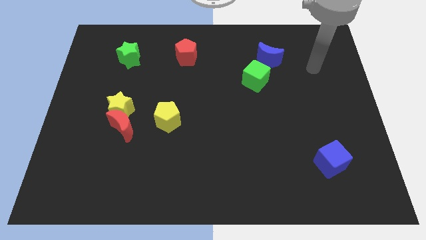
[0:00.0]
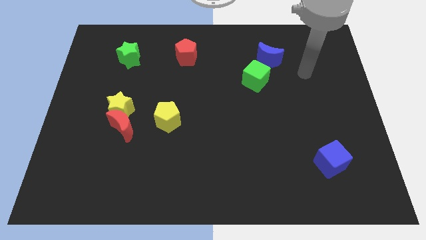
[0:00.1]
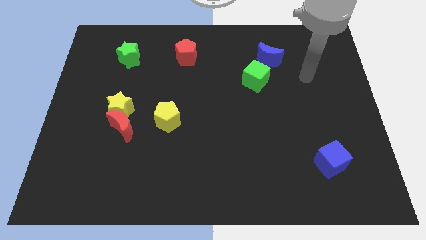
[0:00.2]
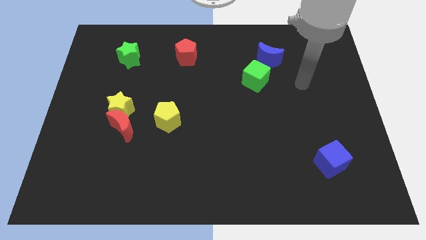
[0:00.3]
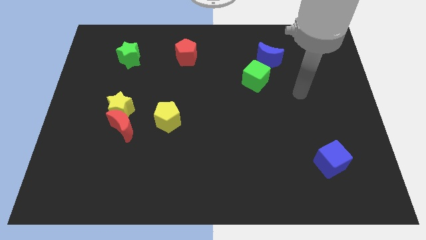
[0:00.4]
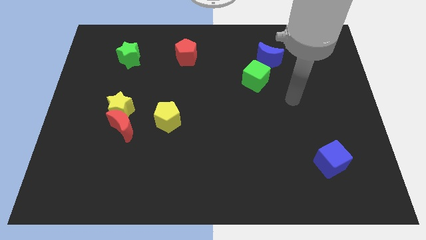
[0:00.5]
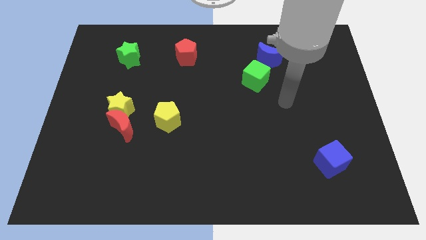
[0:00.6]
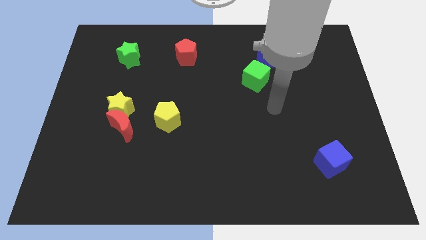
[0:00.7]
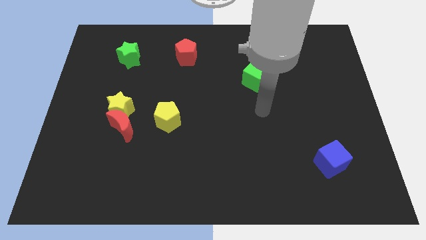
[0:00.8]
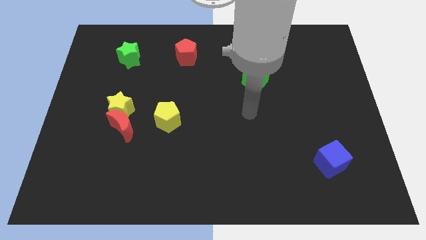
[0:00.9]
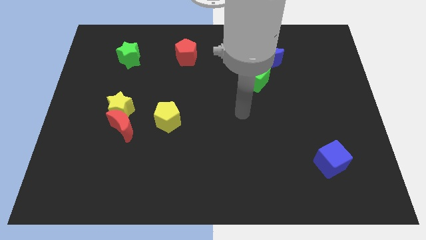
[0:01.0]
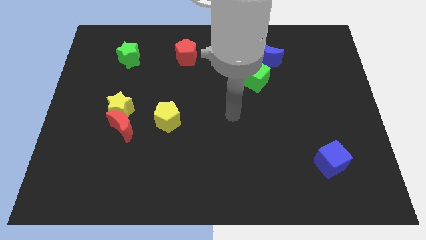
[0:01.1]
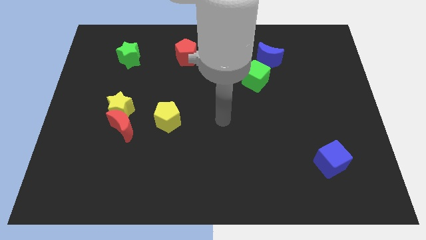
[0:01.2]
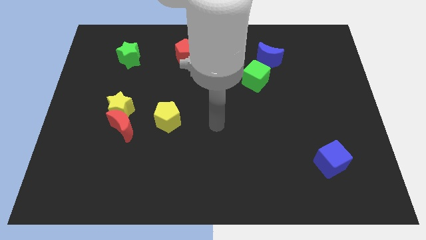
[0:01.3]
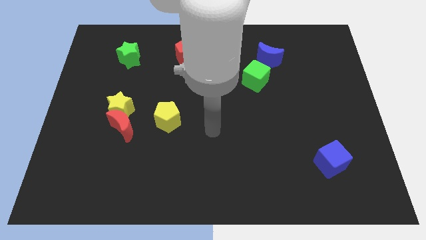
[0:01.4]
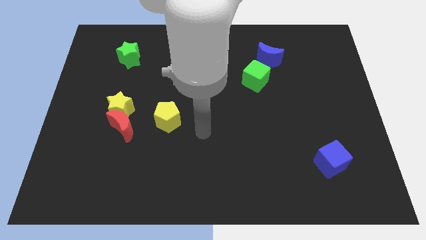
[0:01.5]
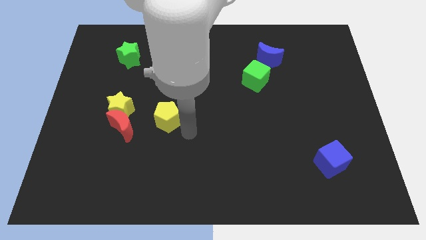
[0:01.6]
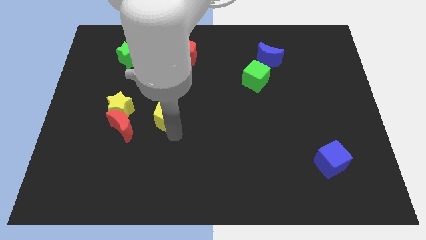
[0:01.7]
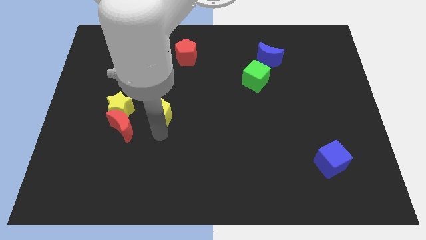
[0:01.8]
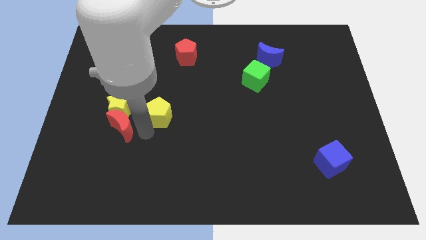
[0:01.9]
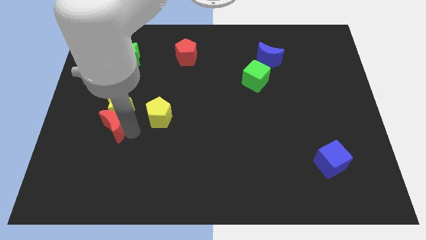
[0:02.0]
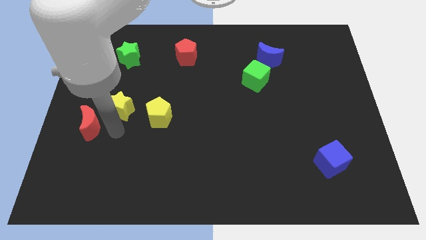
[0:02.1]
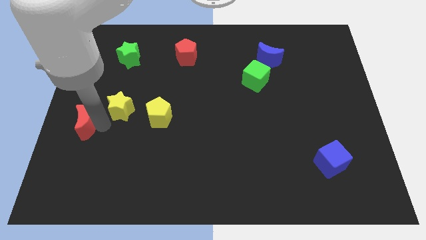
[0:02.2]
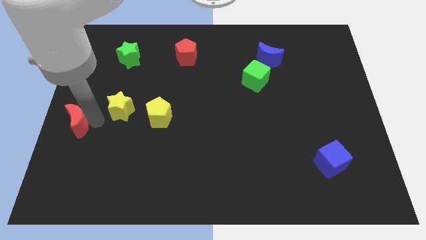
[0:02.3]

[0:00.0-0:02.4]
separate the yellow star from the red moon

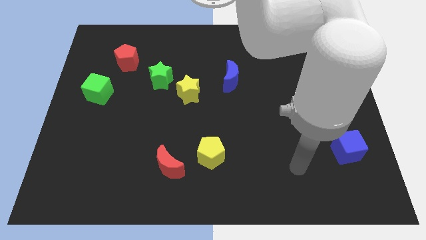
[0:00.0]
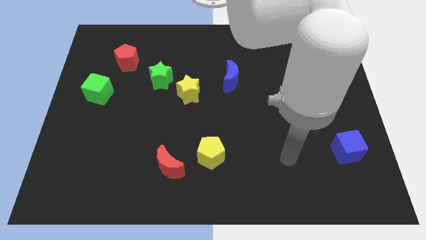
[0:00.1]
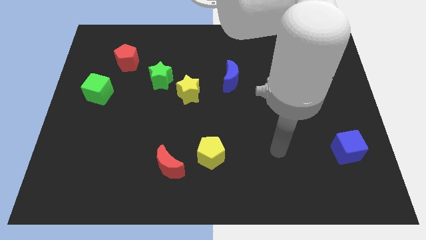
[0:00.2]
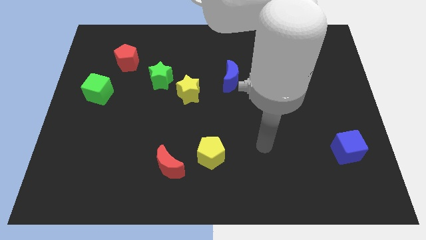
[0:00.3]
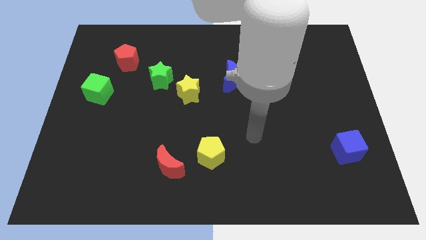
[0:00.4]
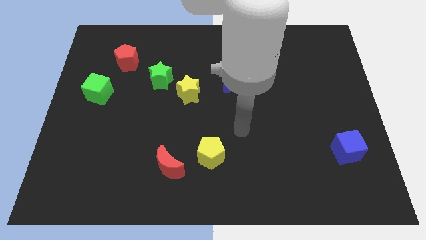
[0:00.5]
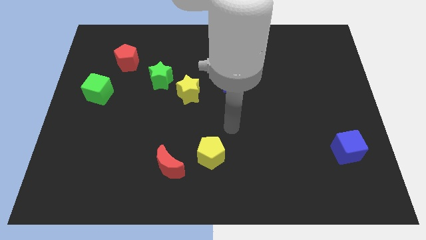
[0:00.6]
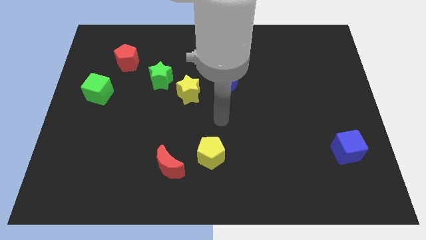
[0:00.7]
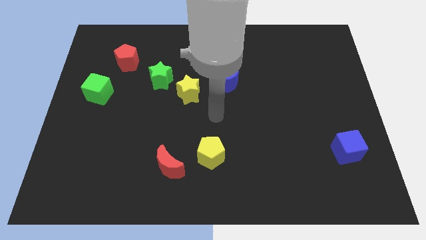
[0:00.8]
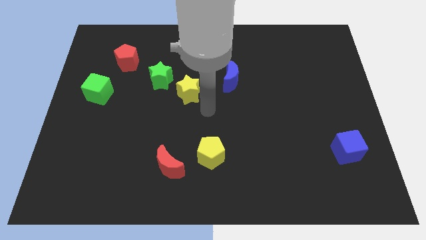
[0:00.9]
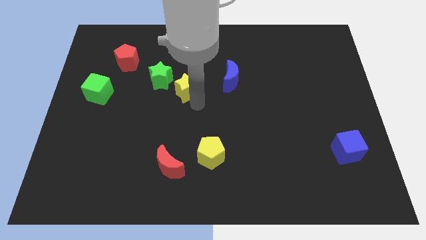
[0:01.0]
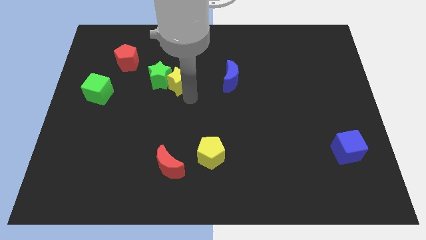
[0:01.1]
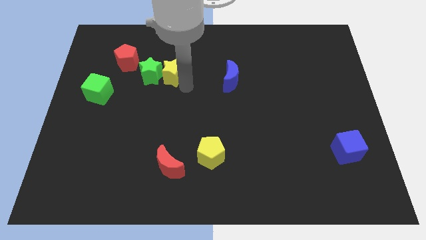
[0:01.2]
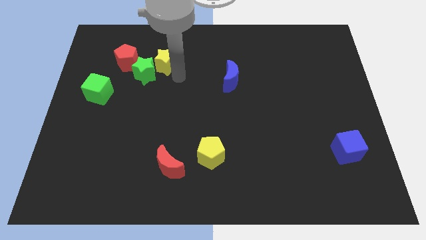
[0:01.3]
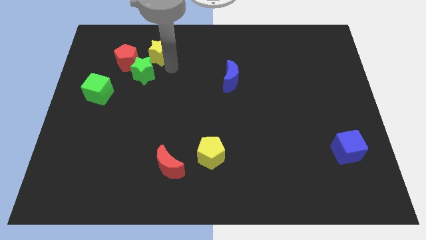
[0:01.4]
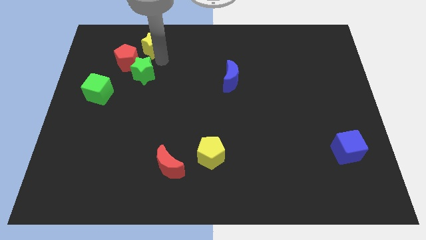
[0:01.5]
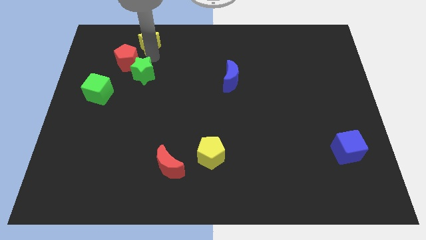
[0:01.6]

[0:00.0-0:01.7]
pull the green star apart from the yellow star

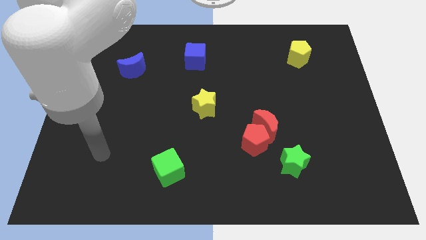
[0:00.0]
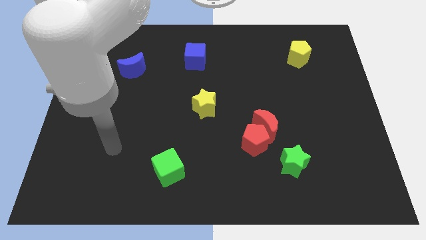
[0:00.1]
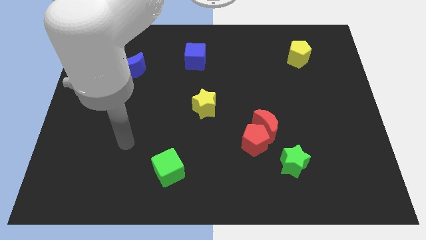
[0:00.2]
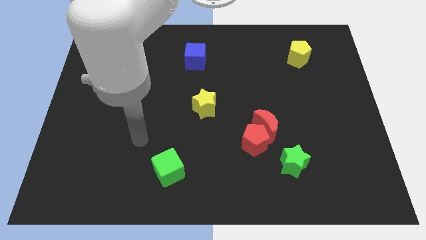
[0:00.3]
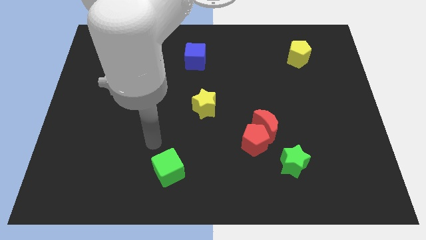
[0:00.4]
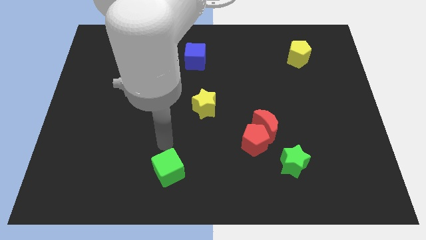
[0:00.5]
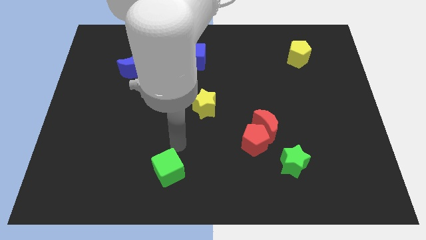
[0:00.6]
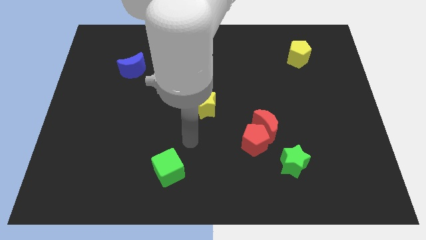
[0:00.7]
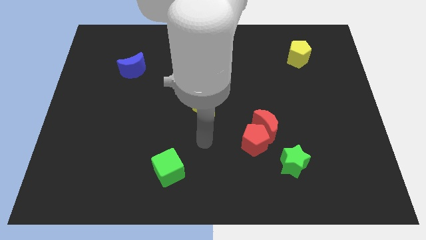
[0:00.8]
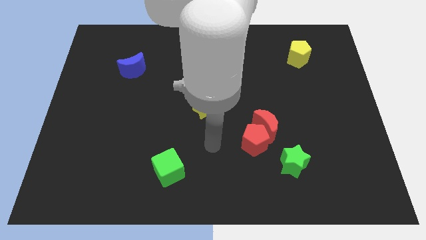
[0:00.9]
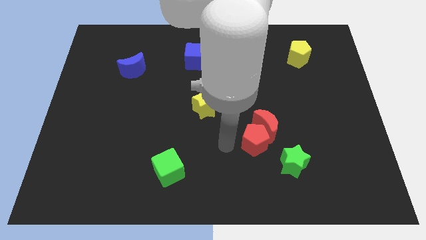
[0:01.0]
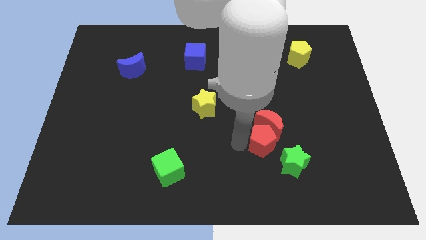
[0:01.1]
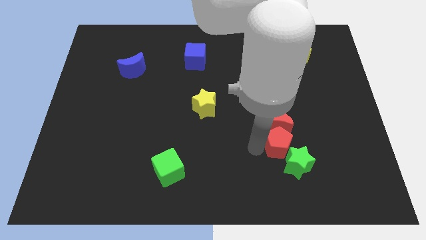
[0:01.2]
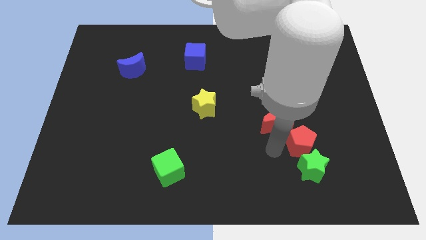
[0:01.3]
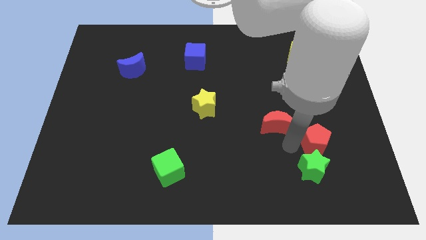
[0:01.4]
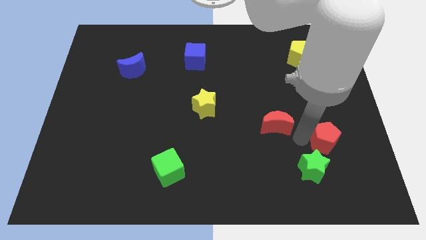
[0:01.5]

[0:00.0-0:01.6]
pull the red moon apart from the red pentagon

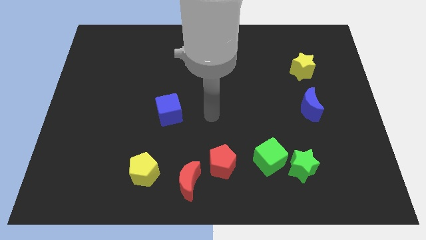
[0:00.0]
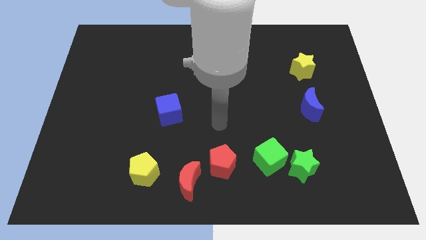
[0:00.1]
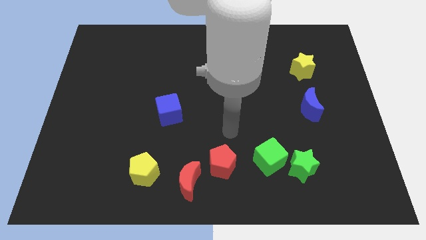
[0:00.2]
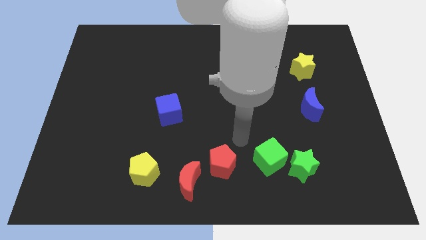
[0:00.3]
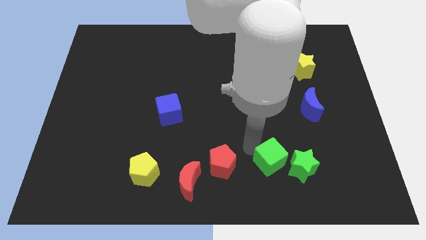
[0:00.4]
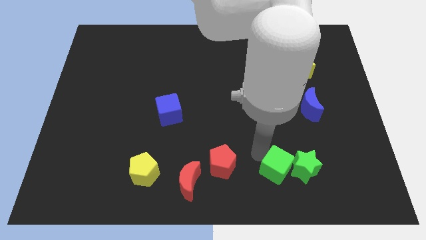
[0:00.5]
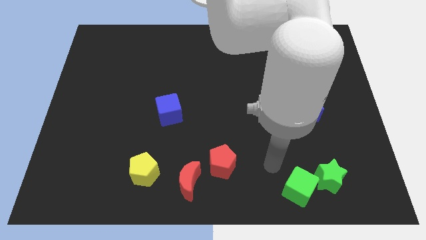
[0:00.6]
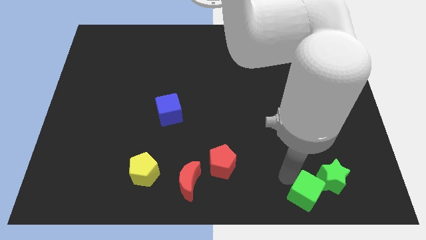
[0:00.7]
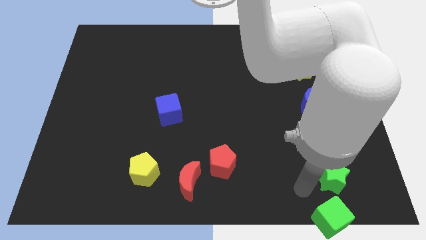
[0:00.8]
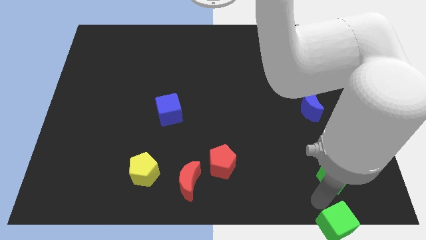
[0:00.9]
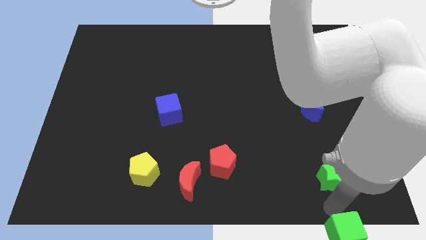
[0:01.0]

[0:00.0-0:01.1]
move the green star away from the green cube

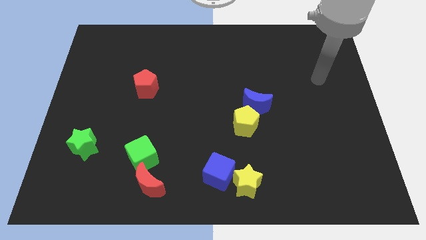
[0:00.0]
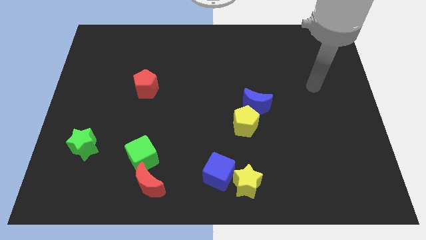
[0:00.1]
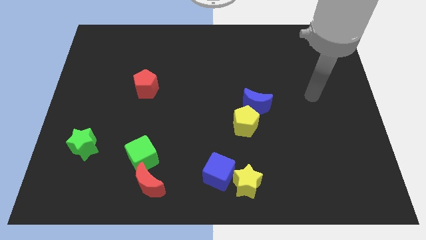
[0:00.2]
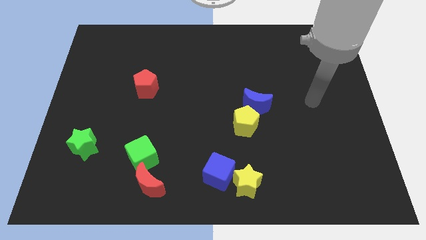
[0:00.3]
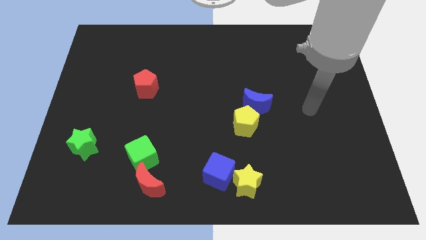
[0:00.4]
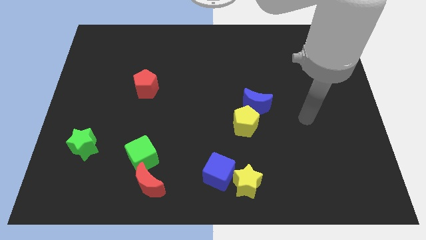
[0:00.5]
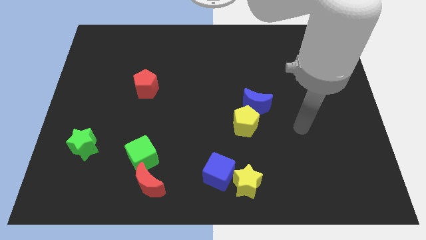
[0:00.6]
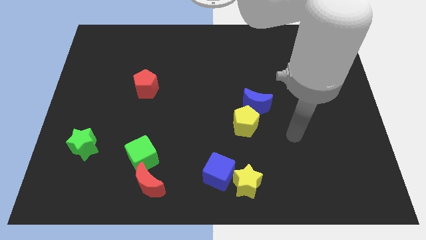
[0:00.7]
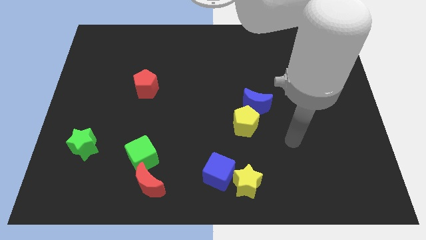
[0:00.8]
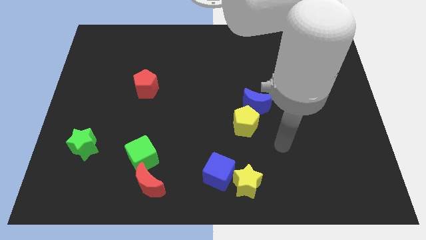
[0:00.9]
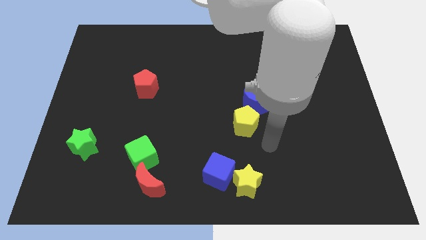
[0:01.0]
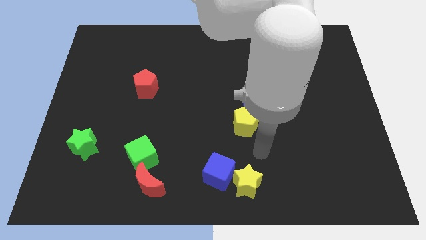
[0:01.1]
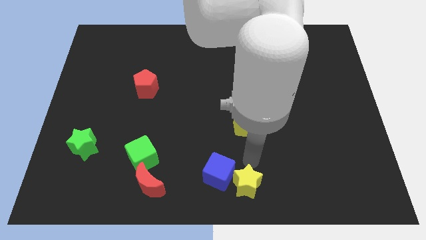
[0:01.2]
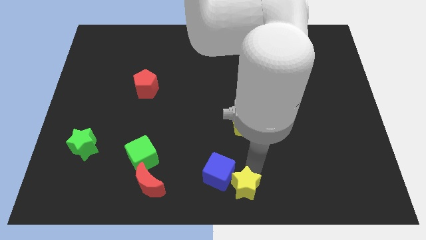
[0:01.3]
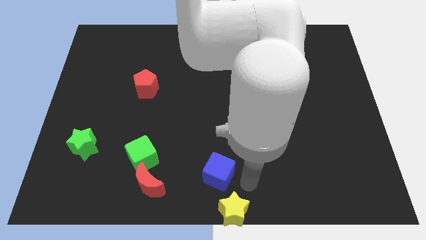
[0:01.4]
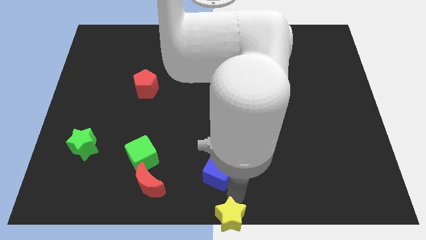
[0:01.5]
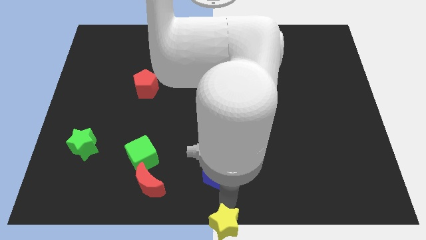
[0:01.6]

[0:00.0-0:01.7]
separate the blue cube from the yellow star

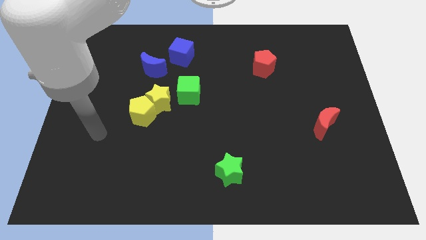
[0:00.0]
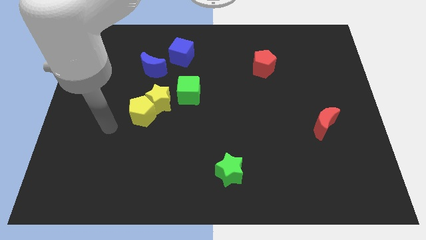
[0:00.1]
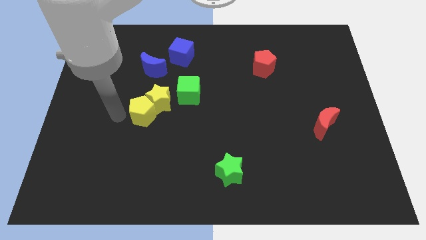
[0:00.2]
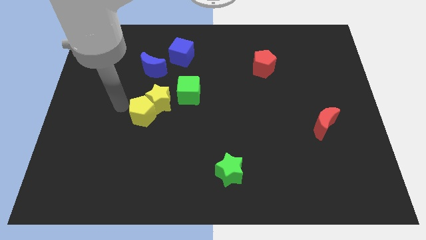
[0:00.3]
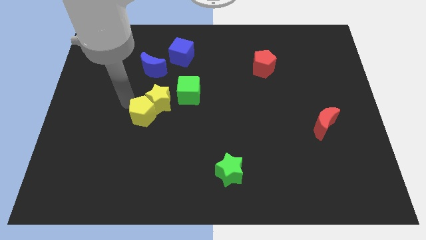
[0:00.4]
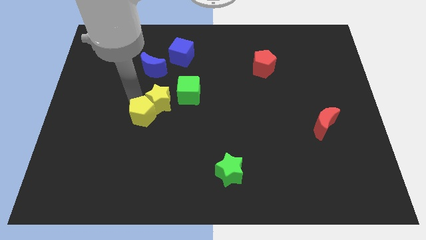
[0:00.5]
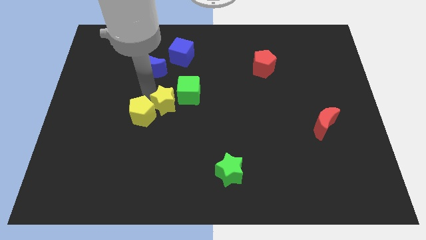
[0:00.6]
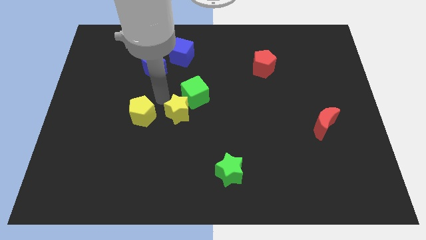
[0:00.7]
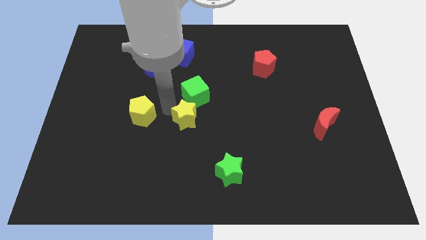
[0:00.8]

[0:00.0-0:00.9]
pull the yellow pentagon apart from the yellow star
